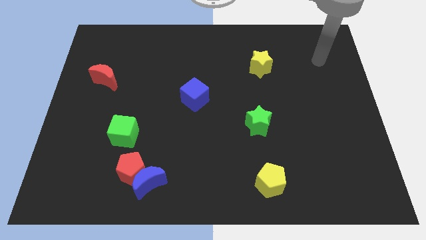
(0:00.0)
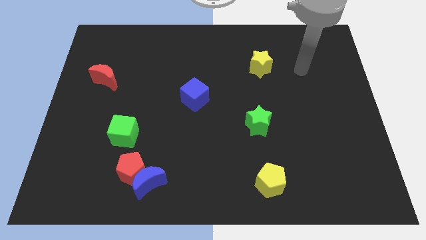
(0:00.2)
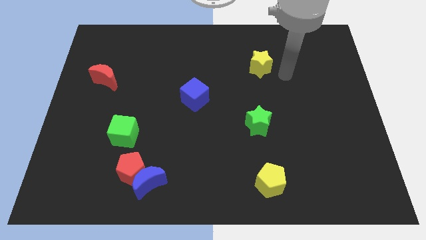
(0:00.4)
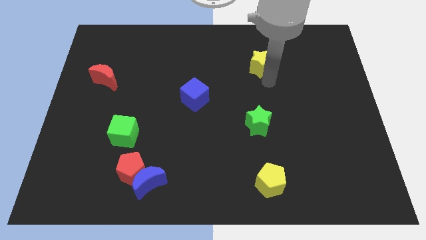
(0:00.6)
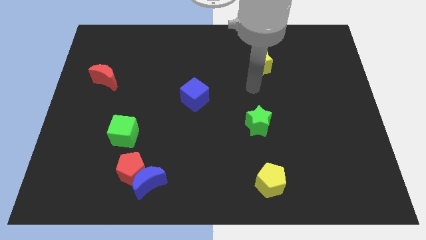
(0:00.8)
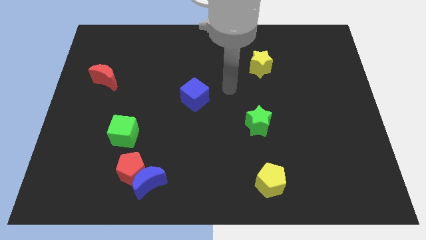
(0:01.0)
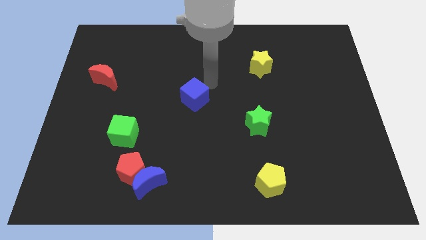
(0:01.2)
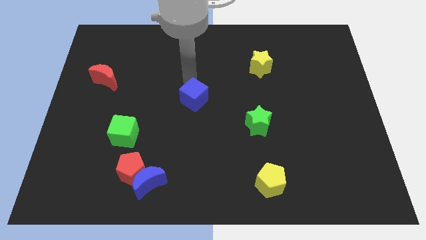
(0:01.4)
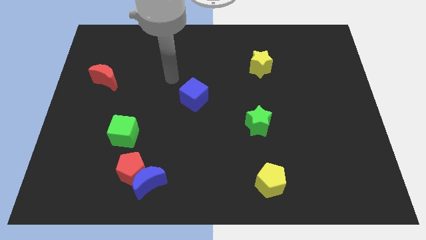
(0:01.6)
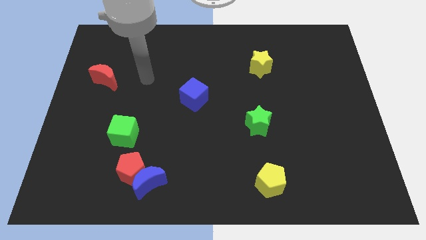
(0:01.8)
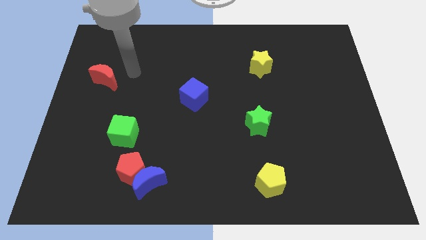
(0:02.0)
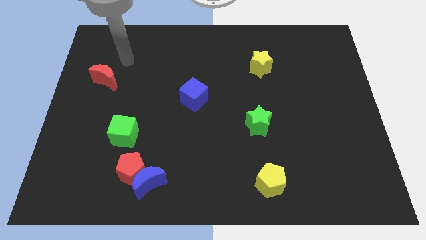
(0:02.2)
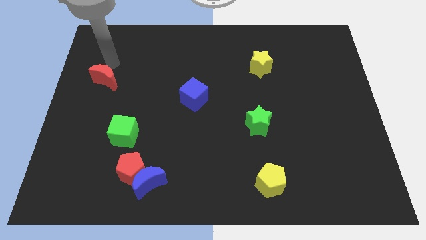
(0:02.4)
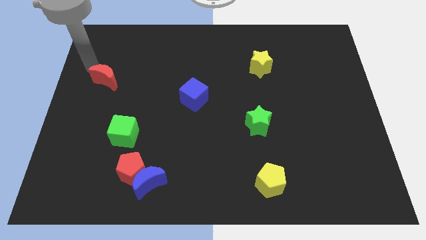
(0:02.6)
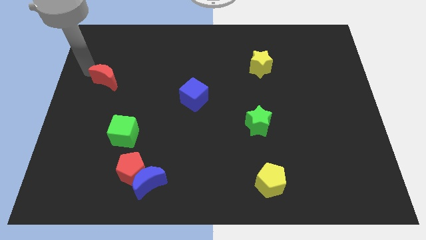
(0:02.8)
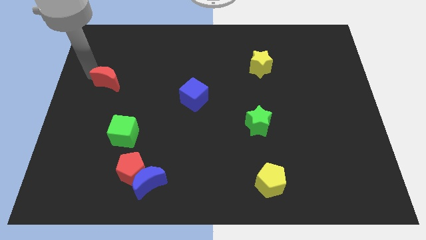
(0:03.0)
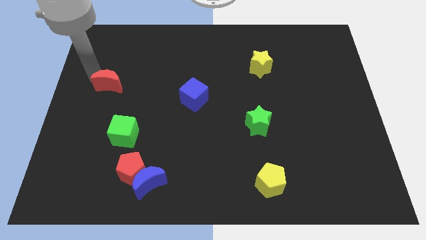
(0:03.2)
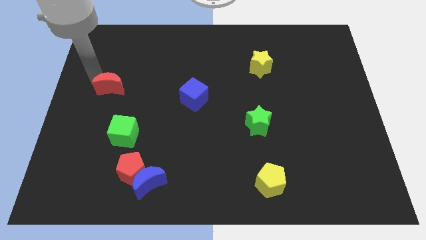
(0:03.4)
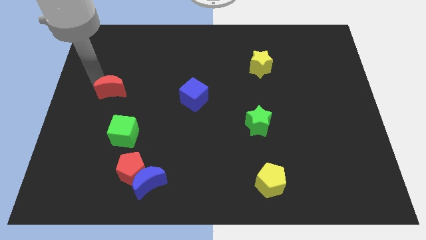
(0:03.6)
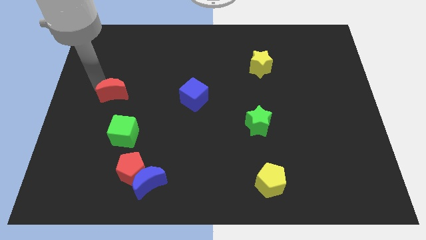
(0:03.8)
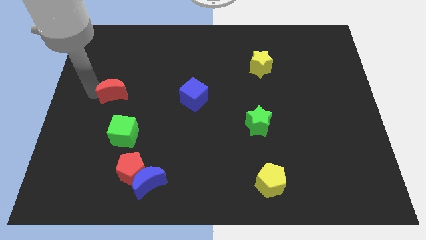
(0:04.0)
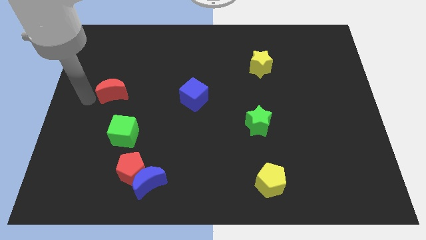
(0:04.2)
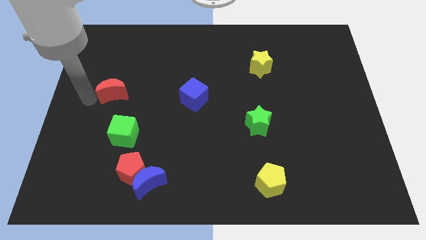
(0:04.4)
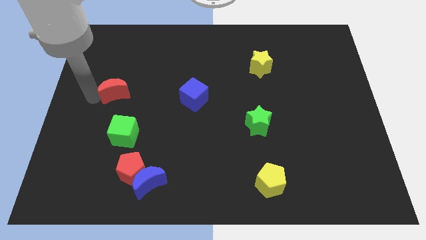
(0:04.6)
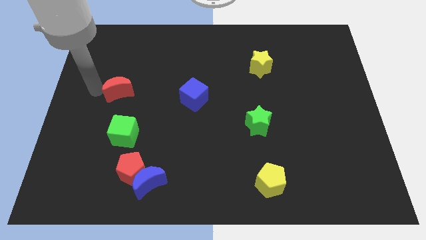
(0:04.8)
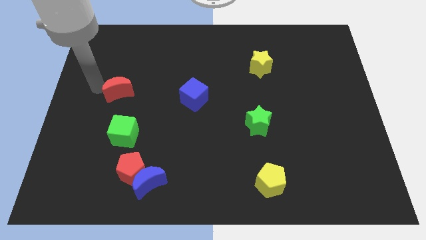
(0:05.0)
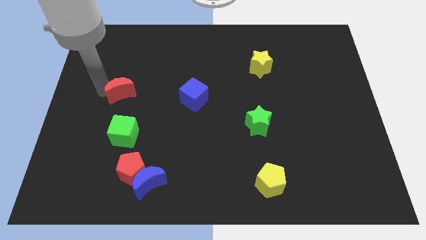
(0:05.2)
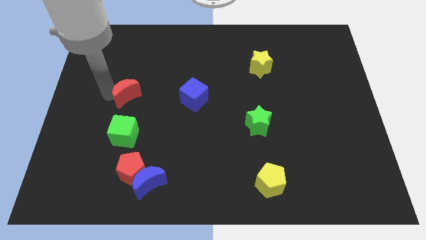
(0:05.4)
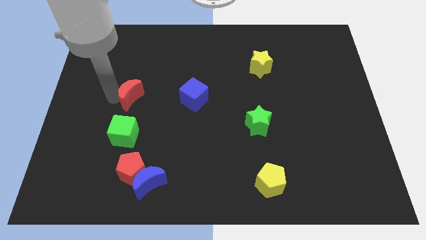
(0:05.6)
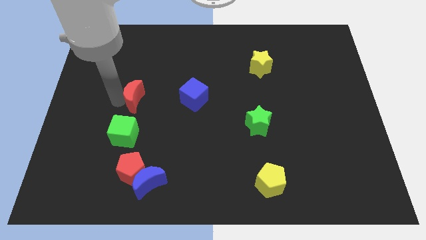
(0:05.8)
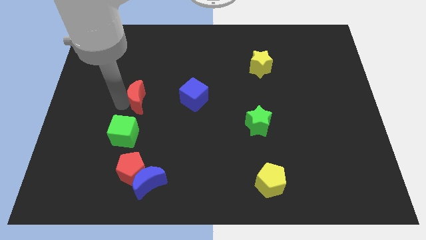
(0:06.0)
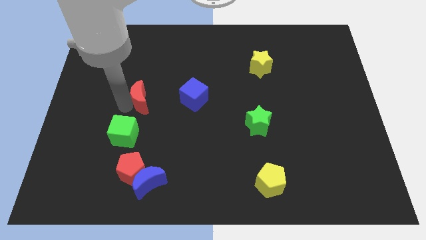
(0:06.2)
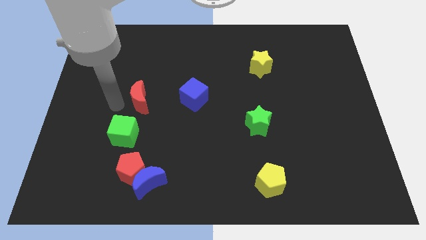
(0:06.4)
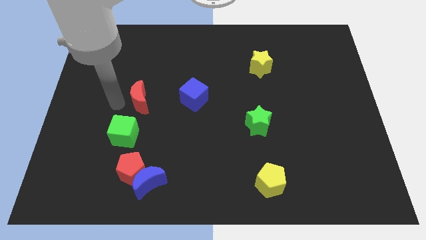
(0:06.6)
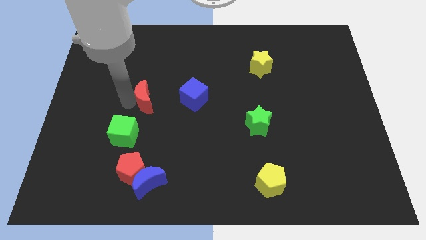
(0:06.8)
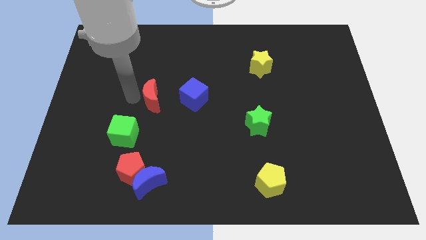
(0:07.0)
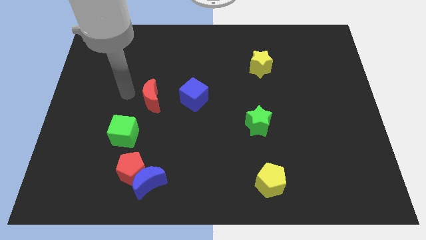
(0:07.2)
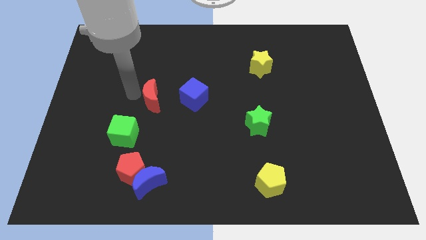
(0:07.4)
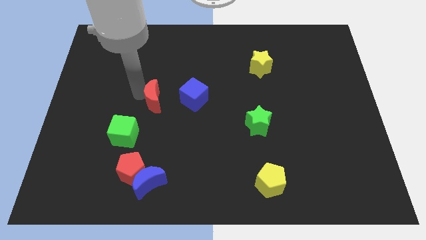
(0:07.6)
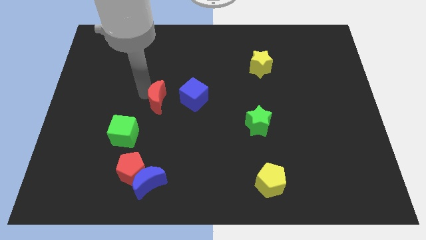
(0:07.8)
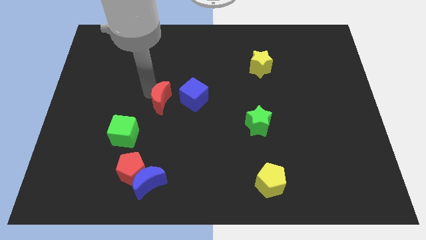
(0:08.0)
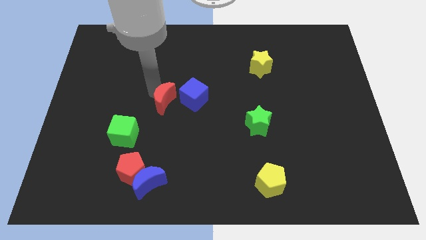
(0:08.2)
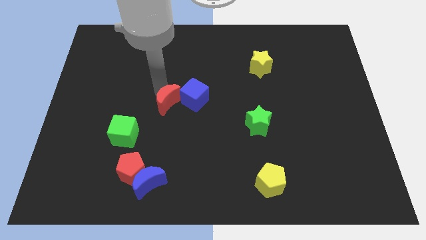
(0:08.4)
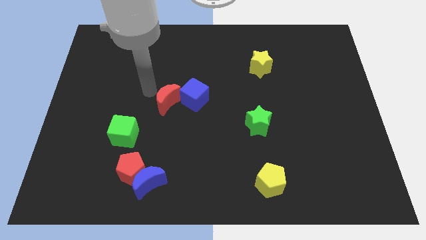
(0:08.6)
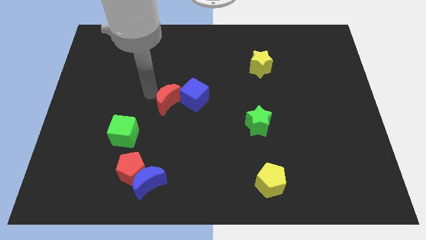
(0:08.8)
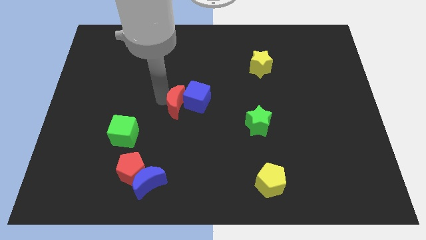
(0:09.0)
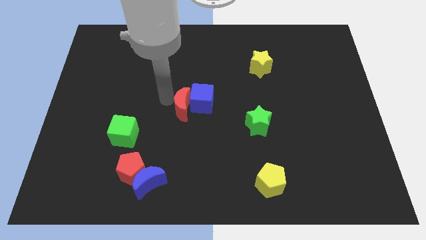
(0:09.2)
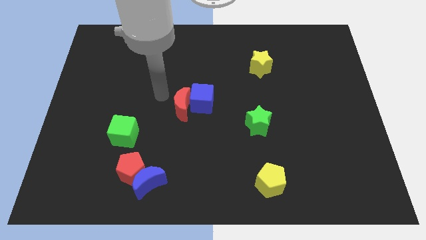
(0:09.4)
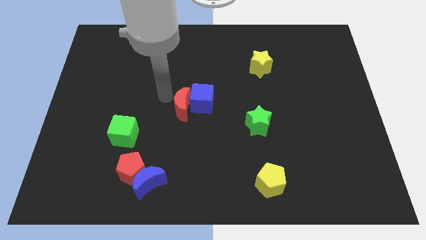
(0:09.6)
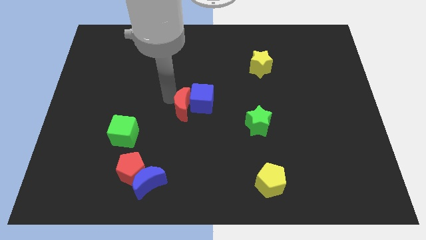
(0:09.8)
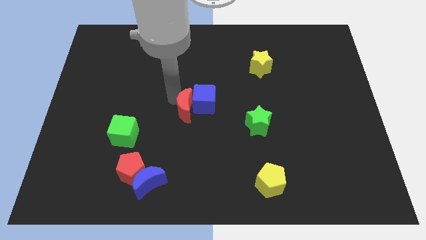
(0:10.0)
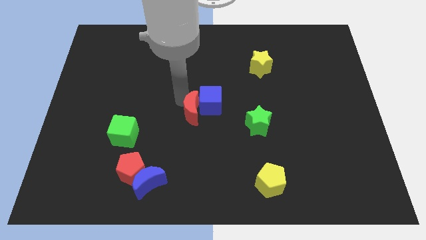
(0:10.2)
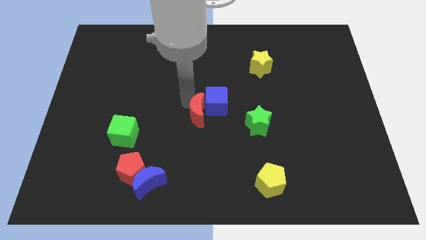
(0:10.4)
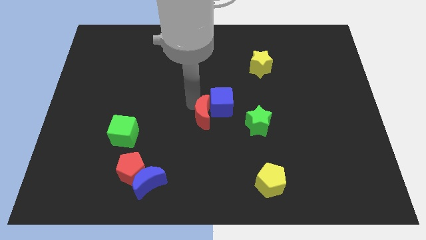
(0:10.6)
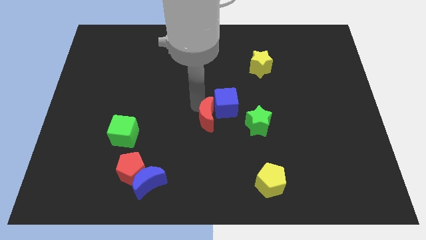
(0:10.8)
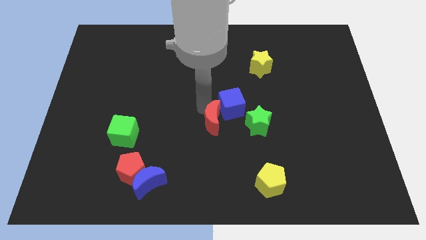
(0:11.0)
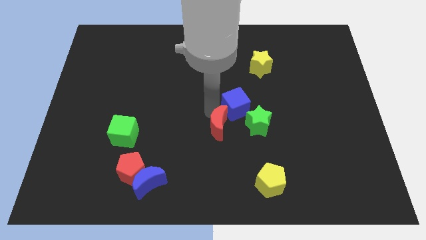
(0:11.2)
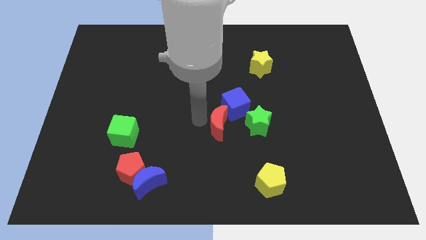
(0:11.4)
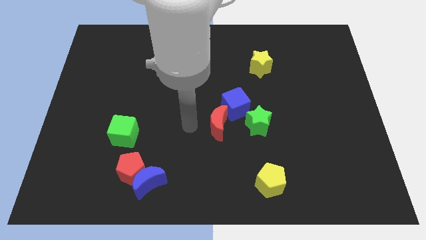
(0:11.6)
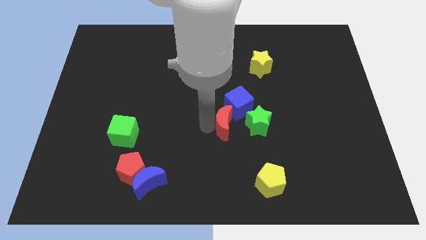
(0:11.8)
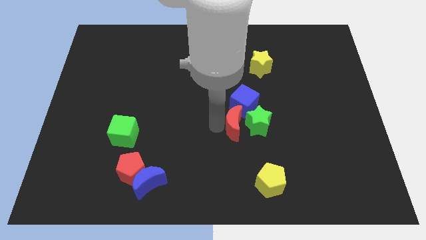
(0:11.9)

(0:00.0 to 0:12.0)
put the red moon close to the green star

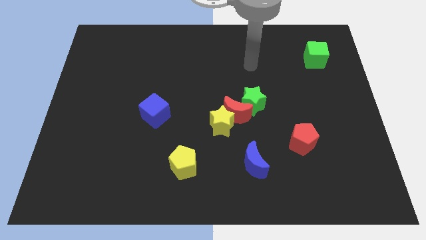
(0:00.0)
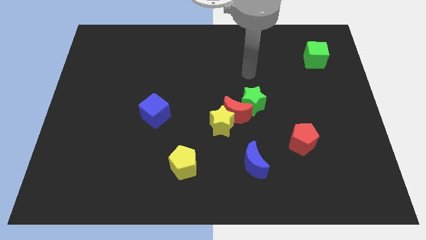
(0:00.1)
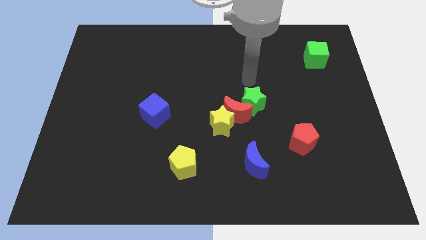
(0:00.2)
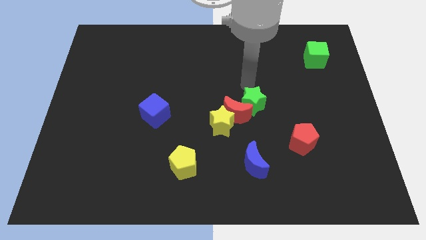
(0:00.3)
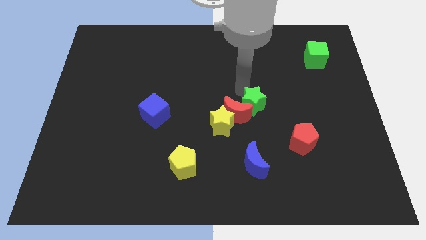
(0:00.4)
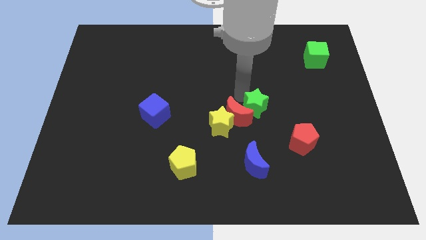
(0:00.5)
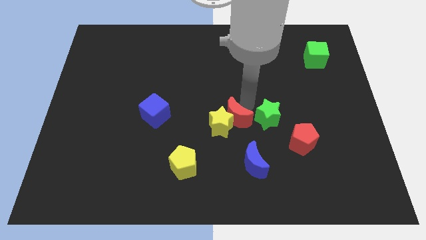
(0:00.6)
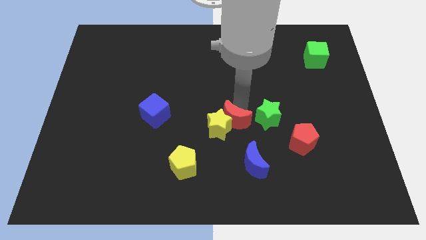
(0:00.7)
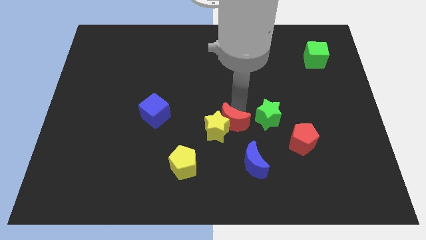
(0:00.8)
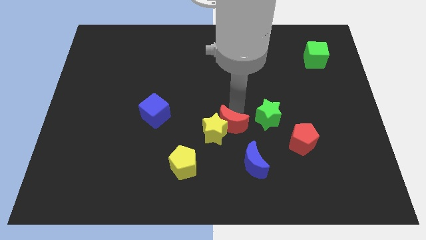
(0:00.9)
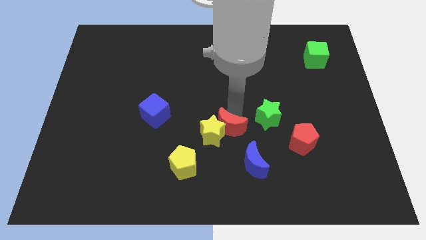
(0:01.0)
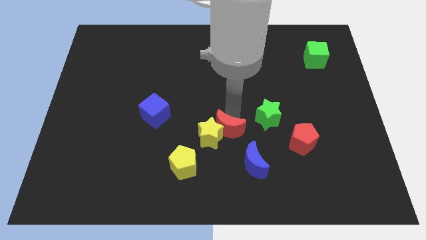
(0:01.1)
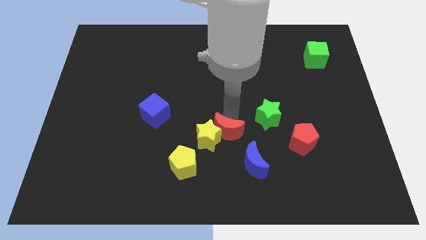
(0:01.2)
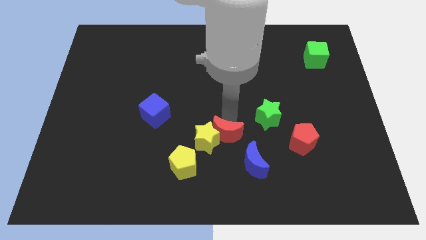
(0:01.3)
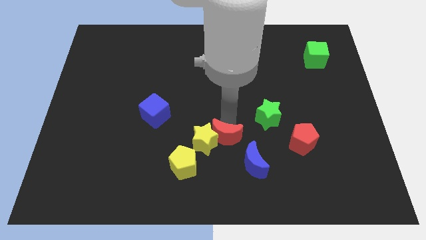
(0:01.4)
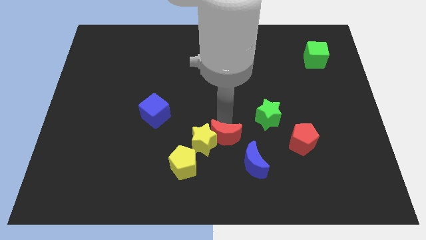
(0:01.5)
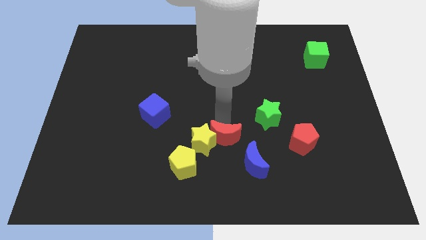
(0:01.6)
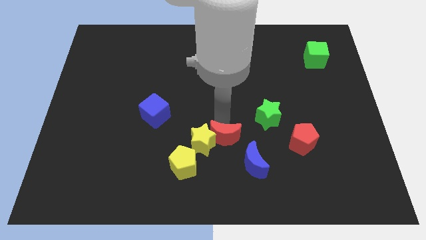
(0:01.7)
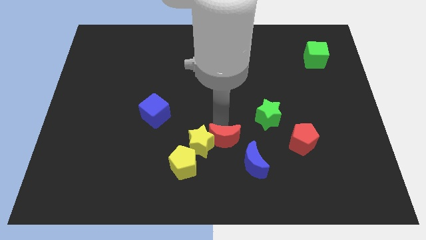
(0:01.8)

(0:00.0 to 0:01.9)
put the yellow star to the yellow pentagon
